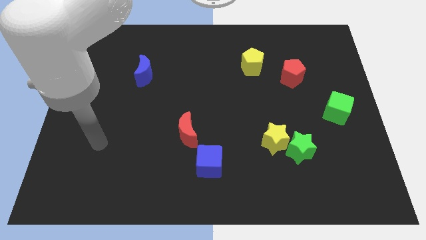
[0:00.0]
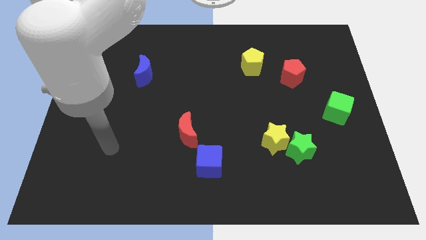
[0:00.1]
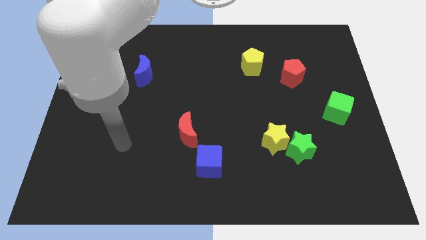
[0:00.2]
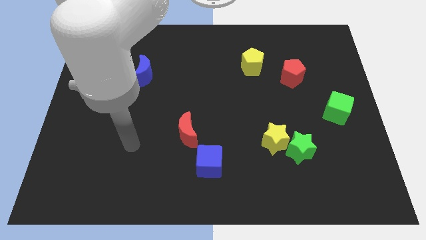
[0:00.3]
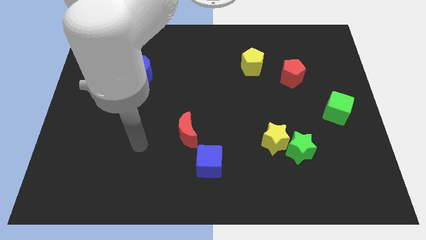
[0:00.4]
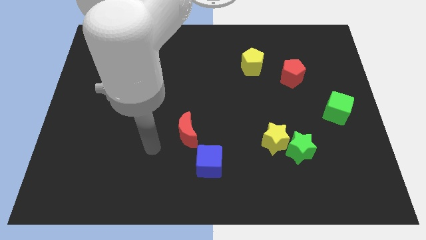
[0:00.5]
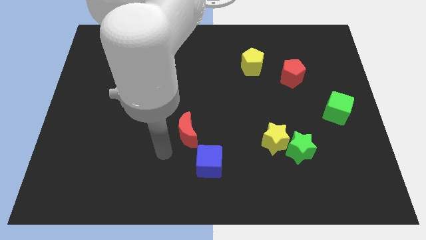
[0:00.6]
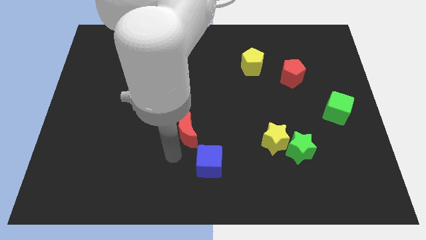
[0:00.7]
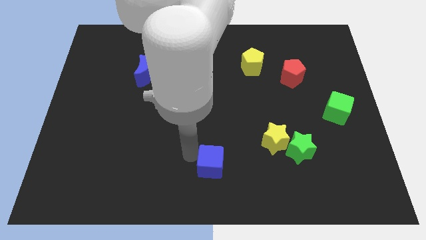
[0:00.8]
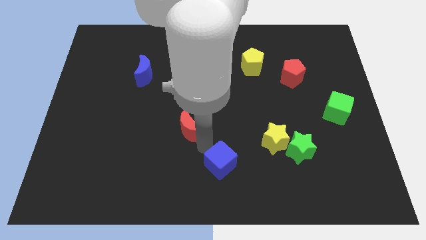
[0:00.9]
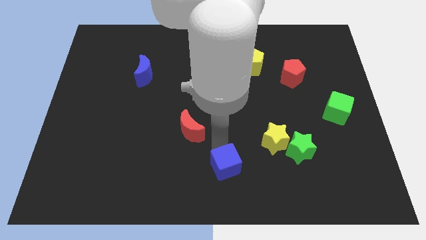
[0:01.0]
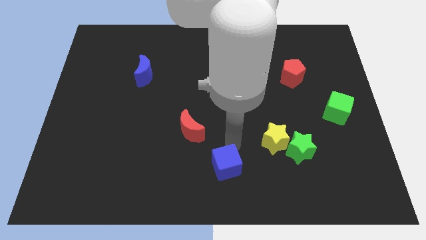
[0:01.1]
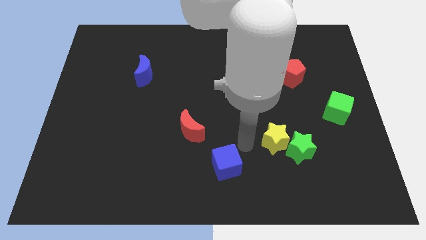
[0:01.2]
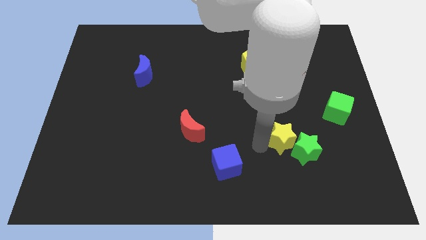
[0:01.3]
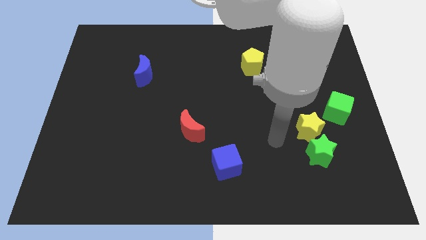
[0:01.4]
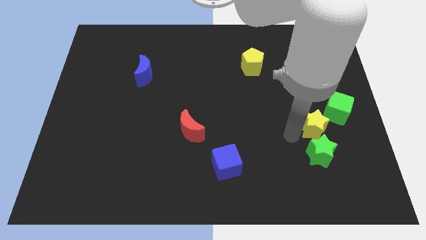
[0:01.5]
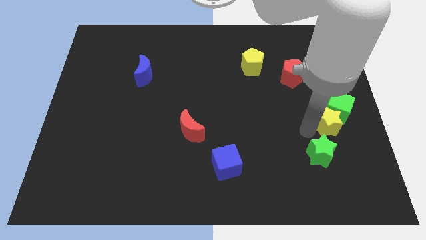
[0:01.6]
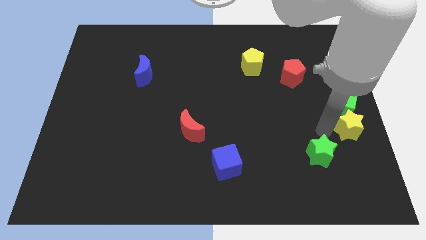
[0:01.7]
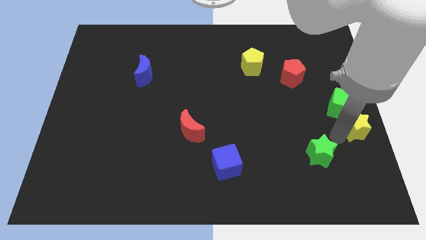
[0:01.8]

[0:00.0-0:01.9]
move the green star away from the yellow star

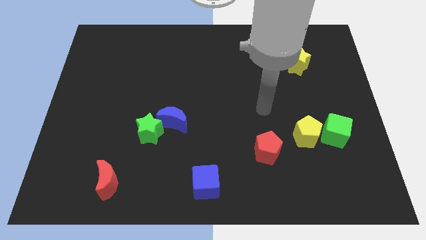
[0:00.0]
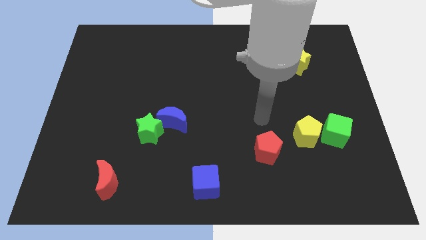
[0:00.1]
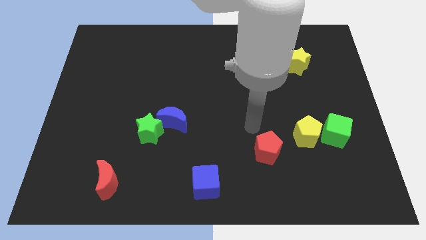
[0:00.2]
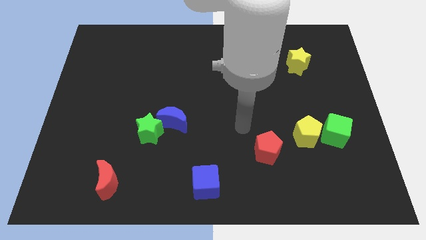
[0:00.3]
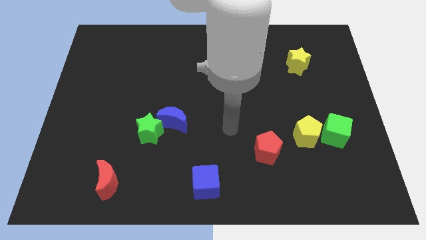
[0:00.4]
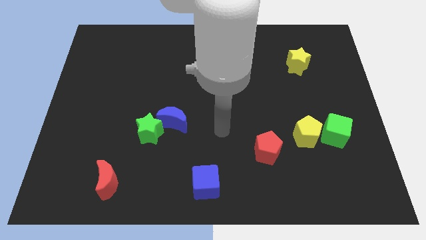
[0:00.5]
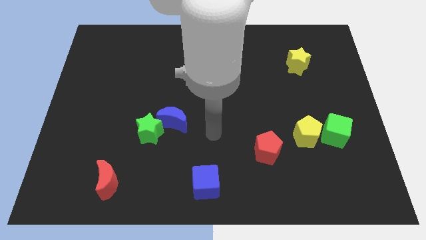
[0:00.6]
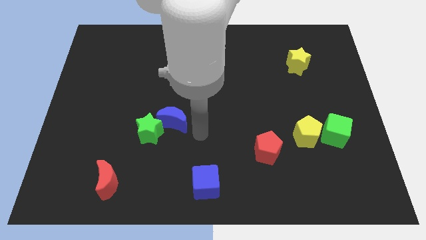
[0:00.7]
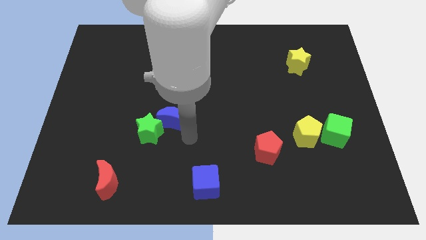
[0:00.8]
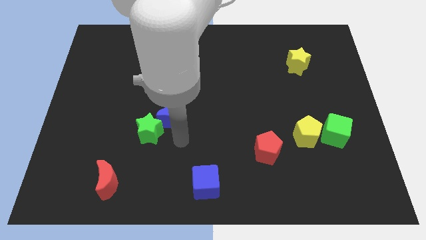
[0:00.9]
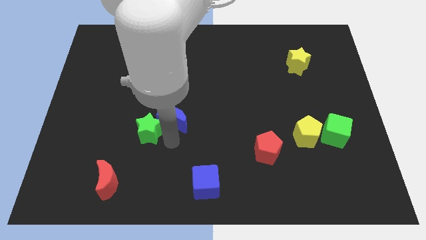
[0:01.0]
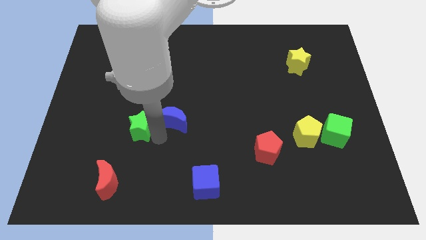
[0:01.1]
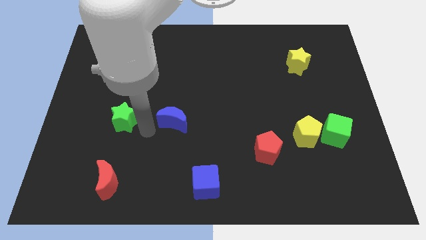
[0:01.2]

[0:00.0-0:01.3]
pull the blue moon apart from the green star

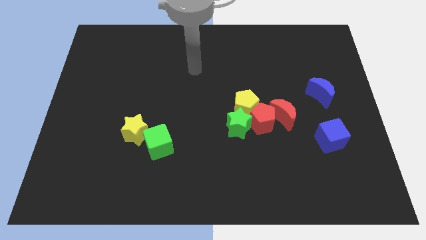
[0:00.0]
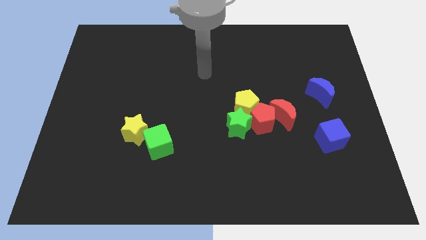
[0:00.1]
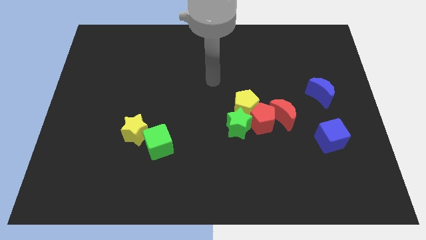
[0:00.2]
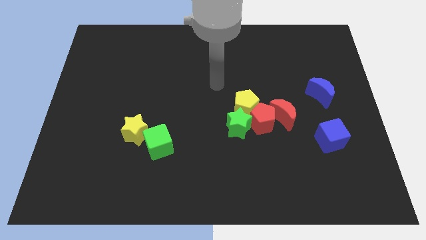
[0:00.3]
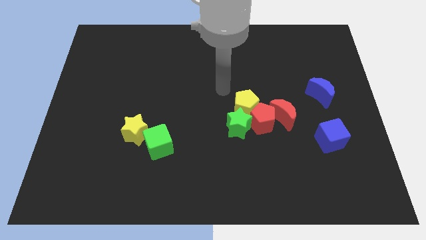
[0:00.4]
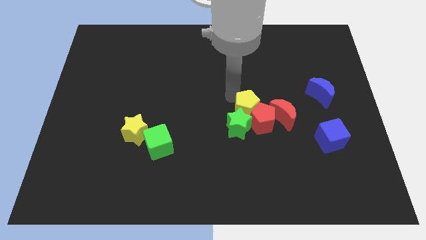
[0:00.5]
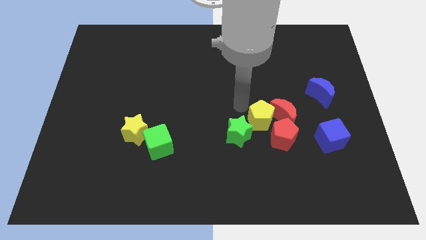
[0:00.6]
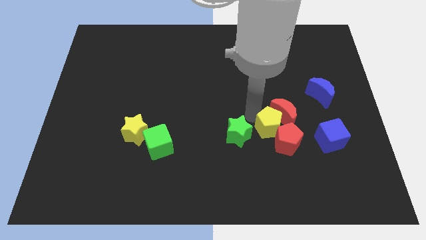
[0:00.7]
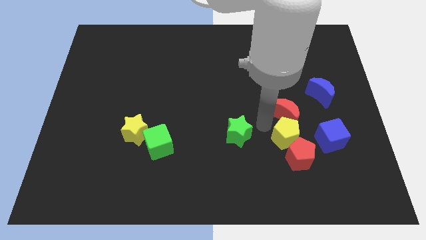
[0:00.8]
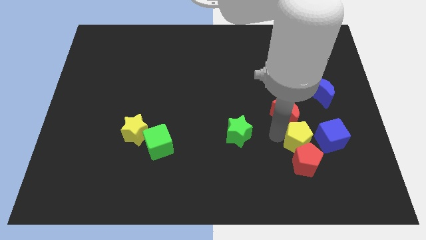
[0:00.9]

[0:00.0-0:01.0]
move the red pentagon away from the group of blocks

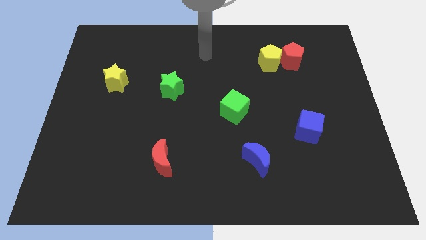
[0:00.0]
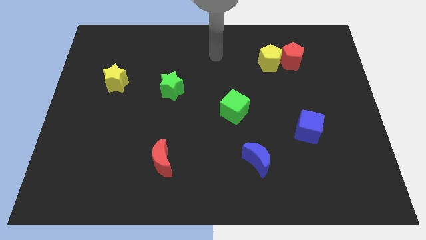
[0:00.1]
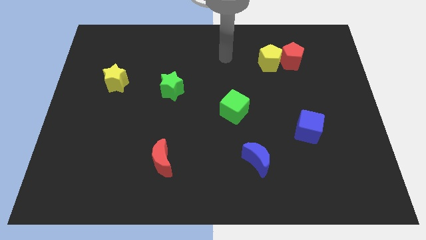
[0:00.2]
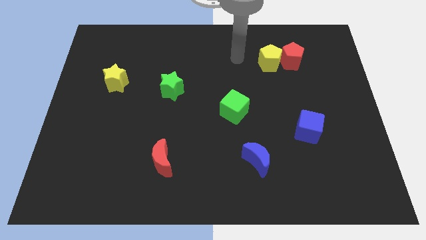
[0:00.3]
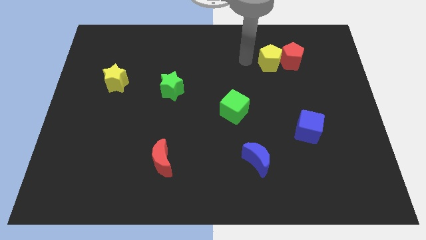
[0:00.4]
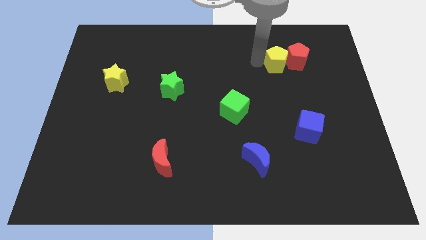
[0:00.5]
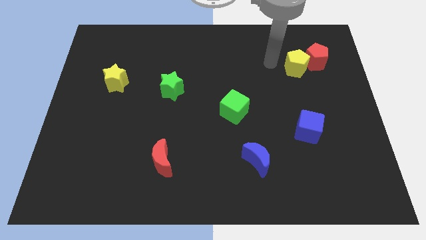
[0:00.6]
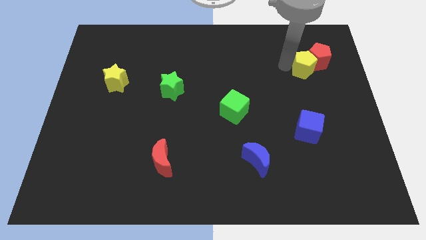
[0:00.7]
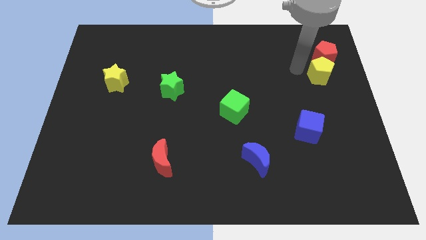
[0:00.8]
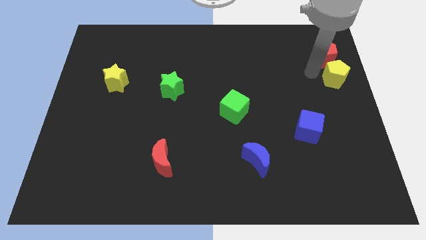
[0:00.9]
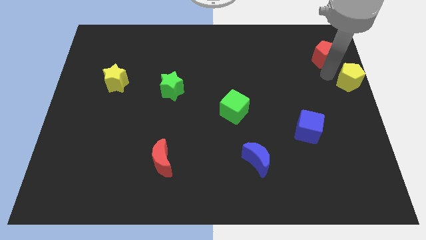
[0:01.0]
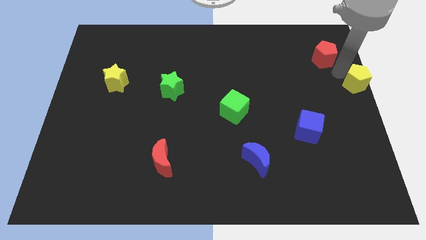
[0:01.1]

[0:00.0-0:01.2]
pull the red pentagon apart from the yellow pentagon

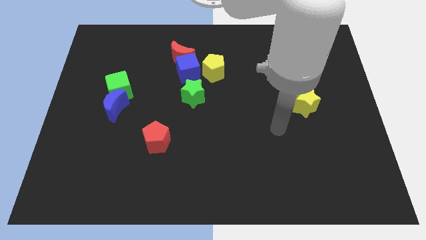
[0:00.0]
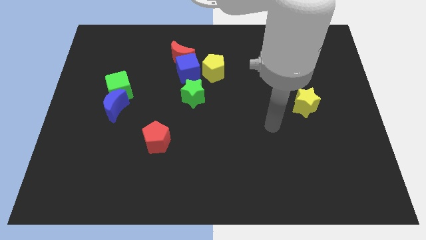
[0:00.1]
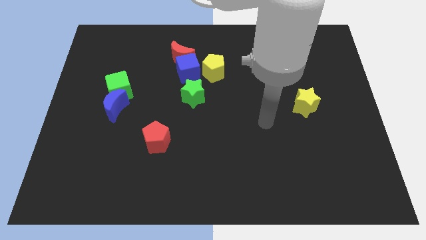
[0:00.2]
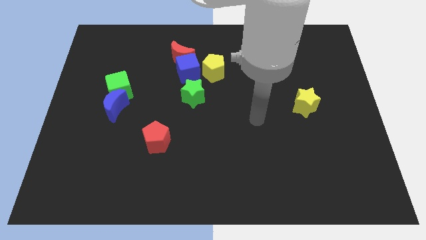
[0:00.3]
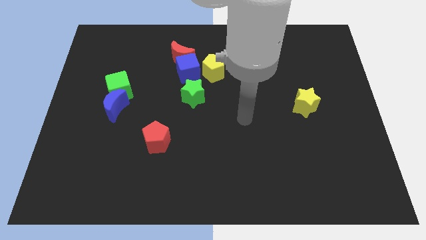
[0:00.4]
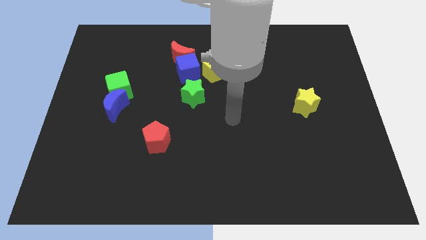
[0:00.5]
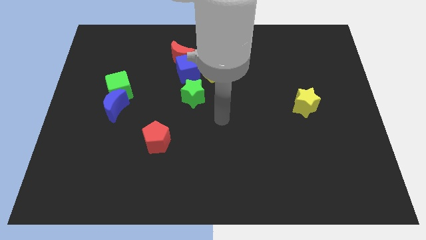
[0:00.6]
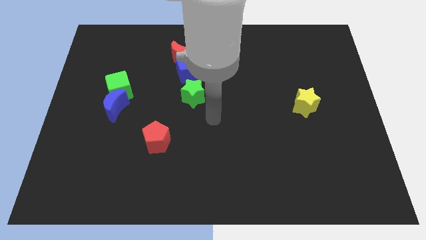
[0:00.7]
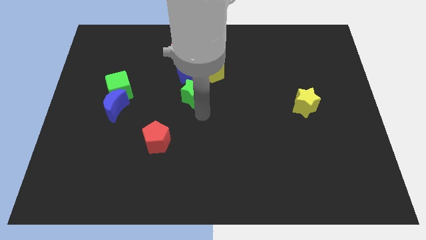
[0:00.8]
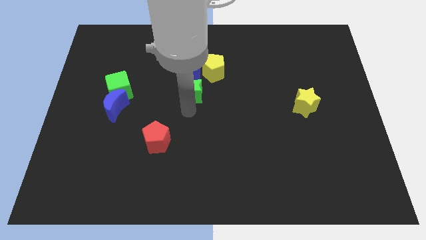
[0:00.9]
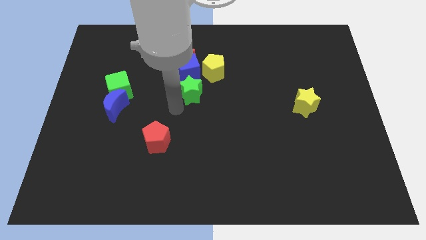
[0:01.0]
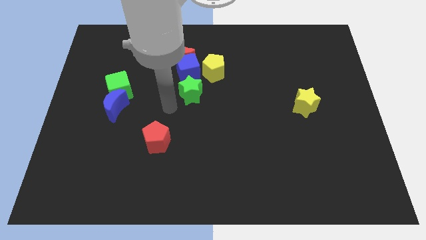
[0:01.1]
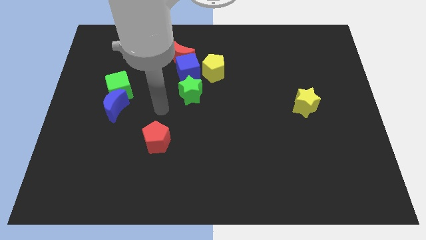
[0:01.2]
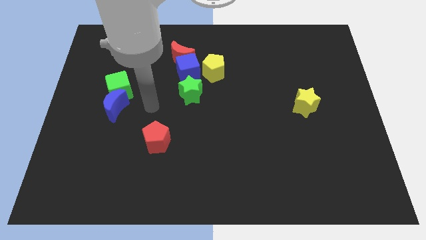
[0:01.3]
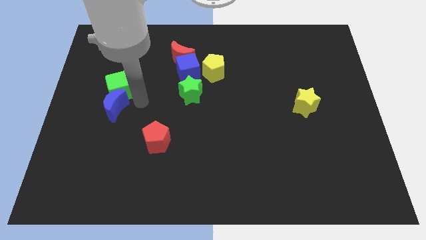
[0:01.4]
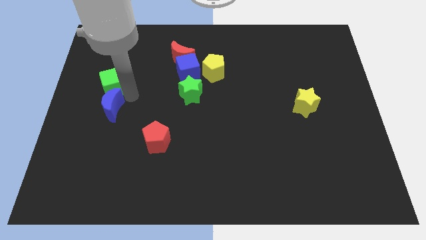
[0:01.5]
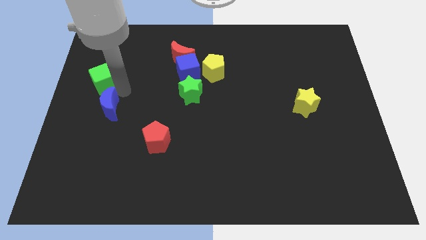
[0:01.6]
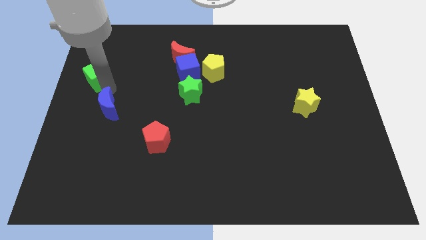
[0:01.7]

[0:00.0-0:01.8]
separate the blue moon from the green cube

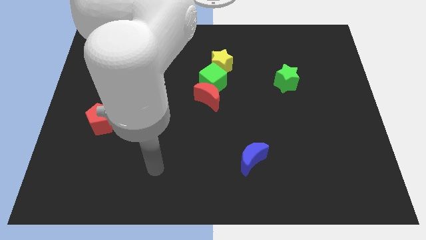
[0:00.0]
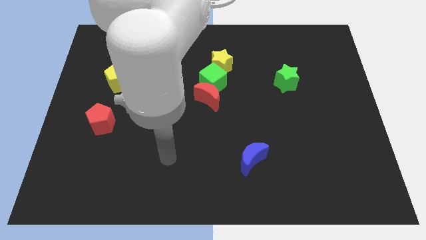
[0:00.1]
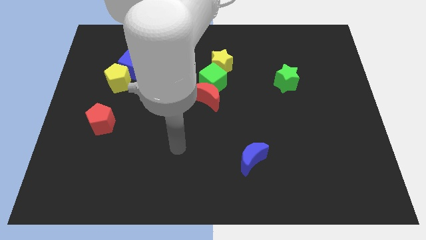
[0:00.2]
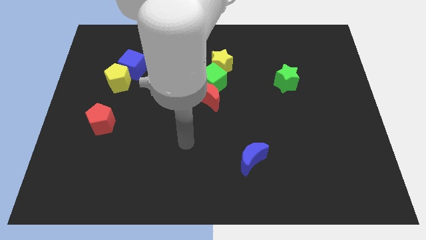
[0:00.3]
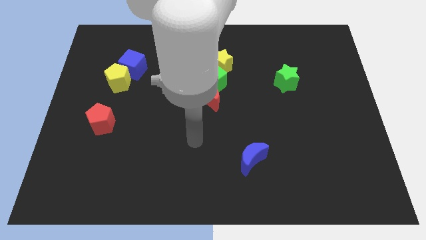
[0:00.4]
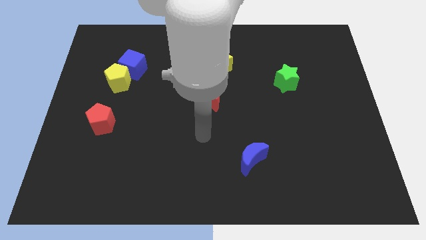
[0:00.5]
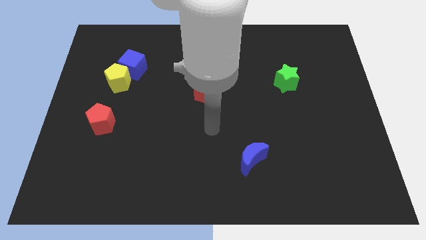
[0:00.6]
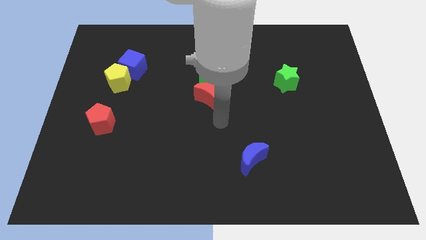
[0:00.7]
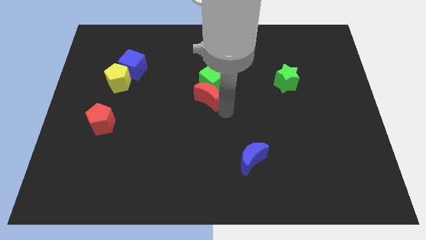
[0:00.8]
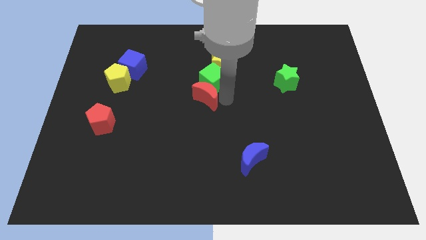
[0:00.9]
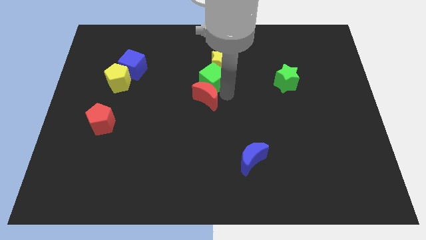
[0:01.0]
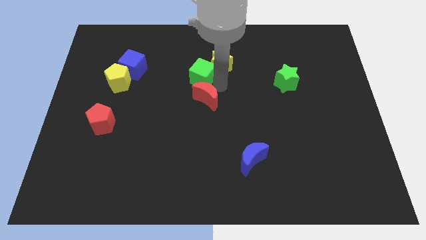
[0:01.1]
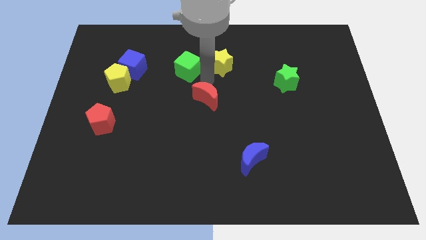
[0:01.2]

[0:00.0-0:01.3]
separate the red moon from the green cube

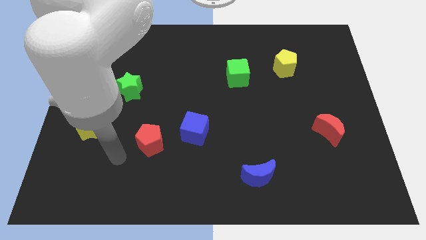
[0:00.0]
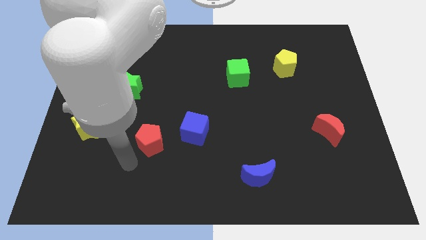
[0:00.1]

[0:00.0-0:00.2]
separate the red pentagon from the blue cube

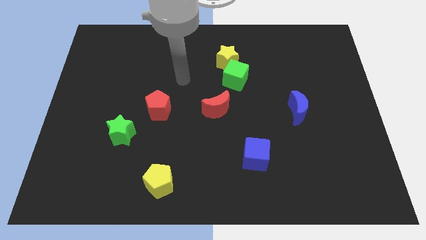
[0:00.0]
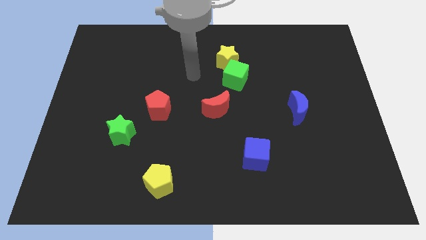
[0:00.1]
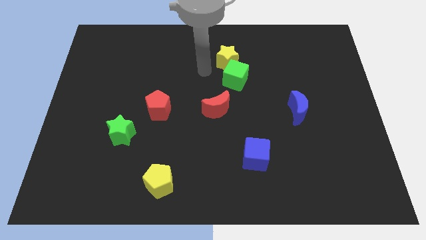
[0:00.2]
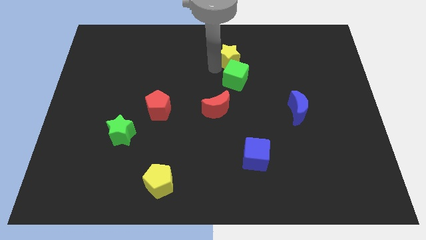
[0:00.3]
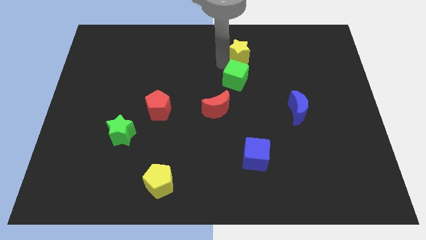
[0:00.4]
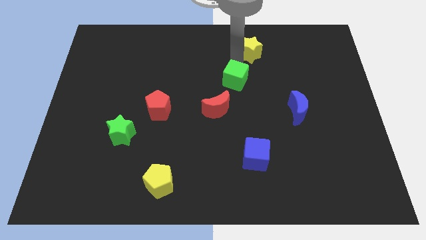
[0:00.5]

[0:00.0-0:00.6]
pull the green cube apart from the yellow star
